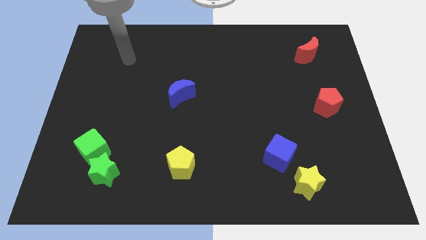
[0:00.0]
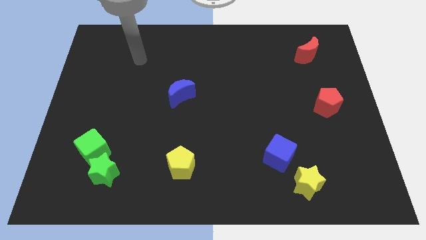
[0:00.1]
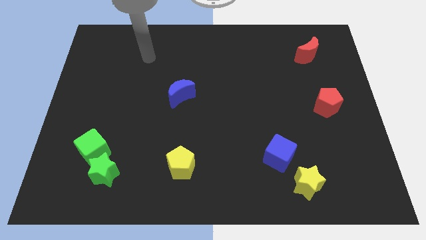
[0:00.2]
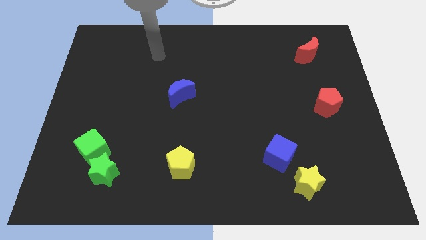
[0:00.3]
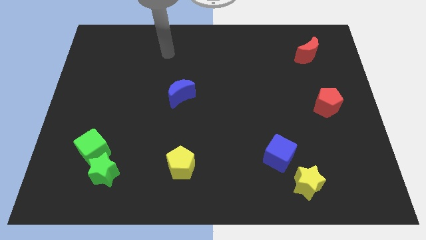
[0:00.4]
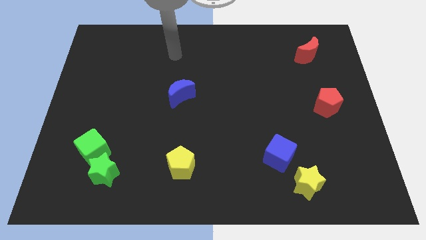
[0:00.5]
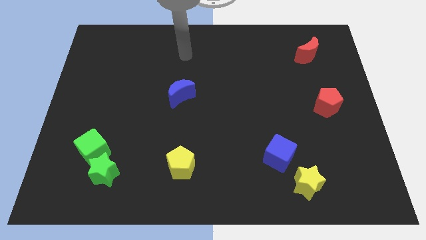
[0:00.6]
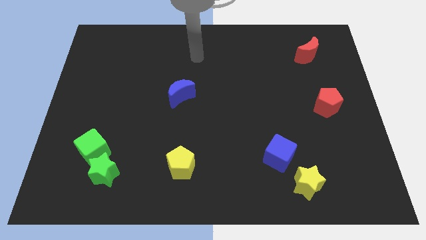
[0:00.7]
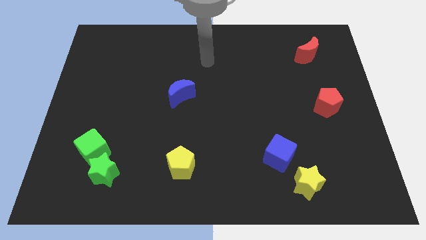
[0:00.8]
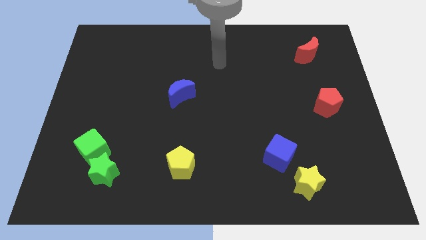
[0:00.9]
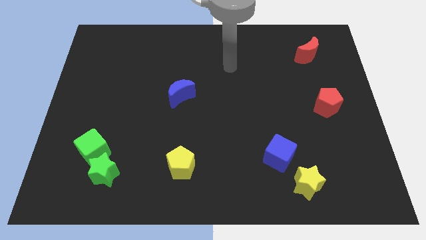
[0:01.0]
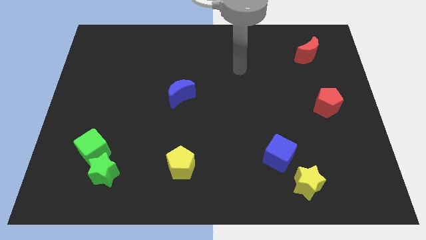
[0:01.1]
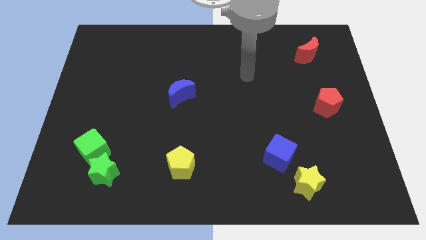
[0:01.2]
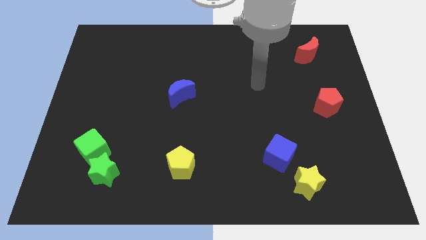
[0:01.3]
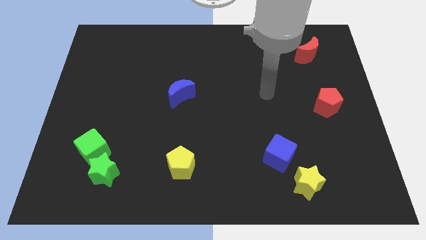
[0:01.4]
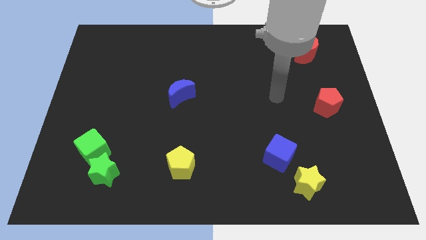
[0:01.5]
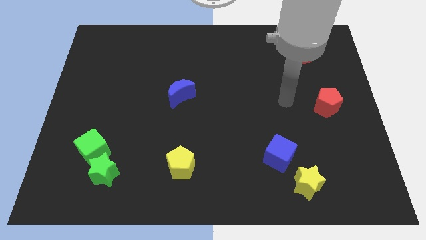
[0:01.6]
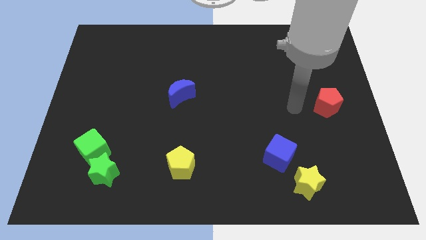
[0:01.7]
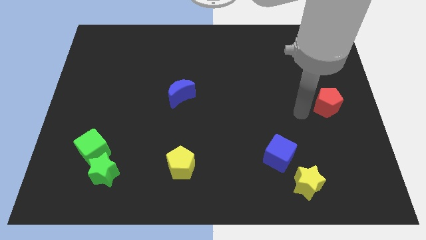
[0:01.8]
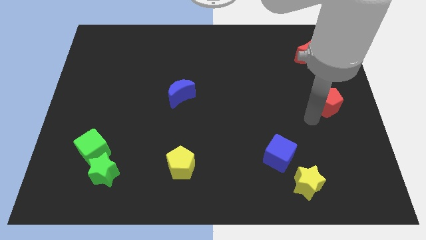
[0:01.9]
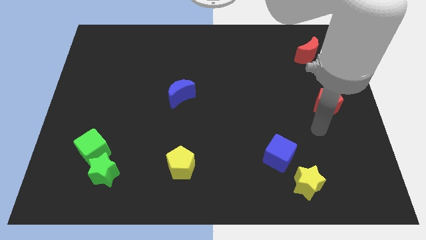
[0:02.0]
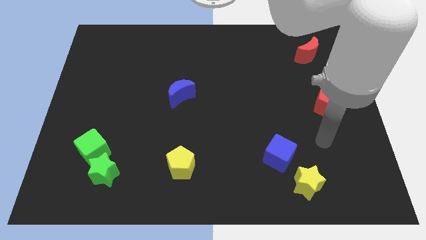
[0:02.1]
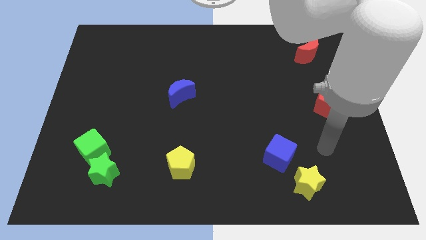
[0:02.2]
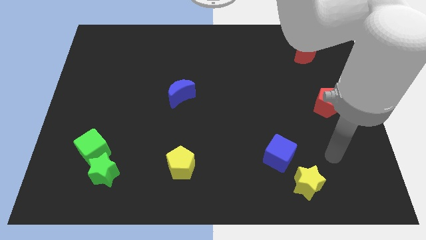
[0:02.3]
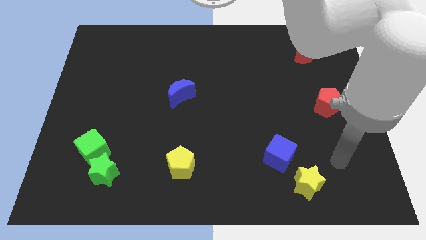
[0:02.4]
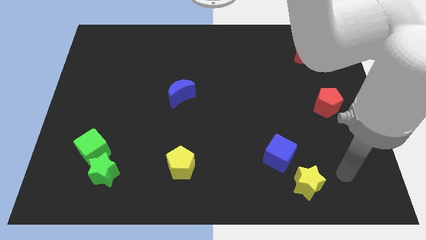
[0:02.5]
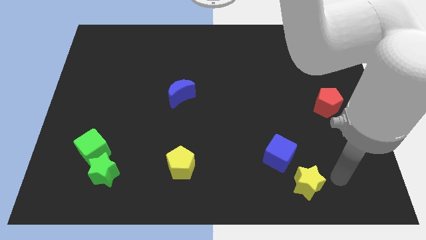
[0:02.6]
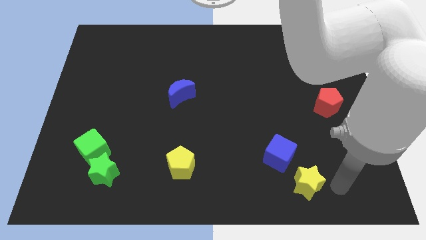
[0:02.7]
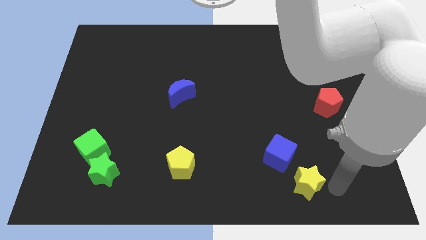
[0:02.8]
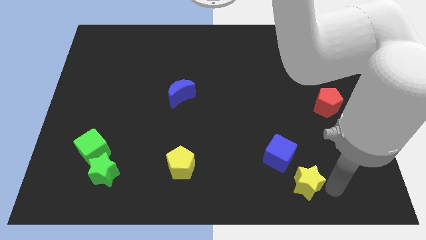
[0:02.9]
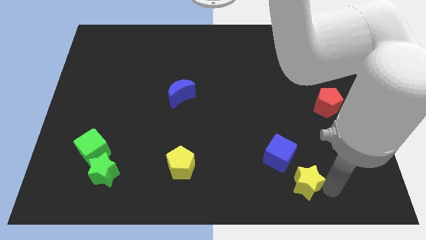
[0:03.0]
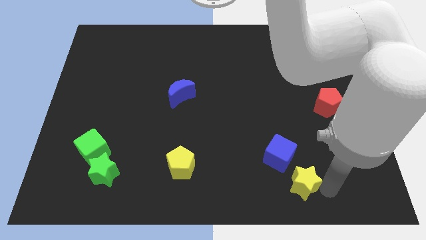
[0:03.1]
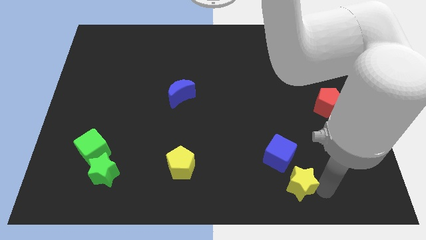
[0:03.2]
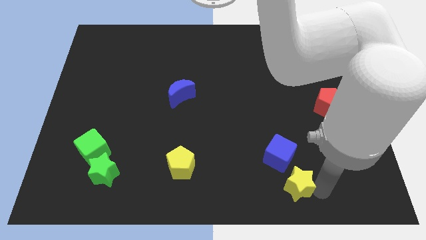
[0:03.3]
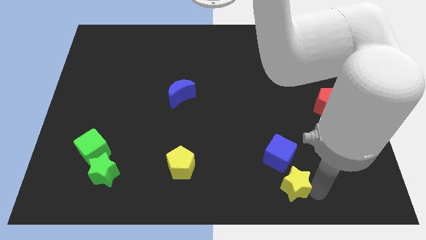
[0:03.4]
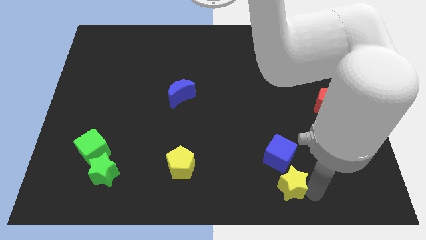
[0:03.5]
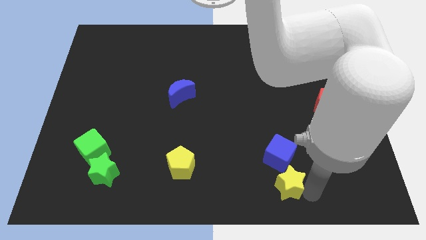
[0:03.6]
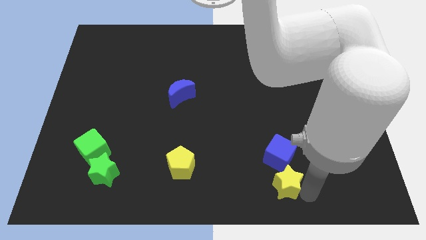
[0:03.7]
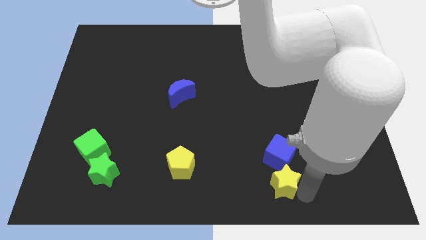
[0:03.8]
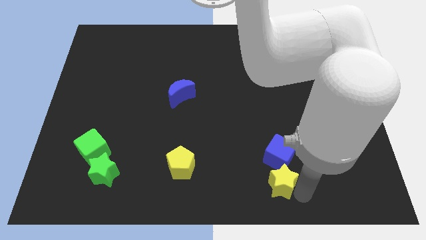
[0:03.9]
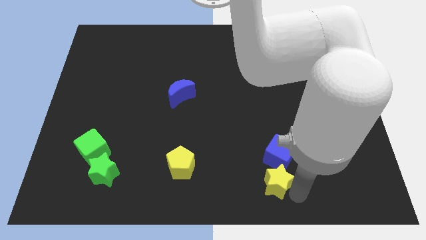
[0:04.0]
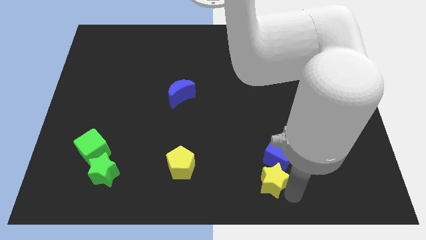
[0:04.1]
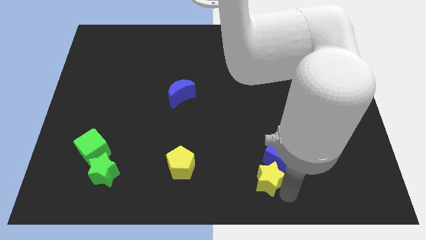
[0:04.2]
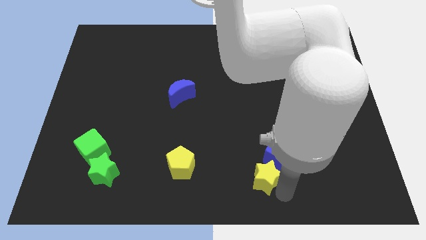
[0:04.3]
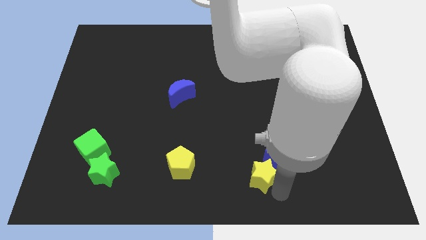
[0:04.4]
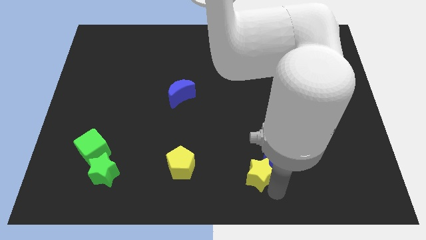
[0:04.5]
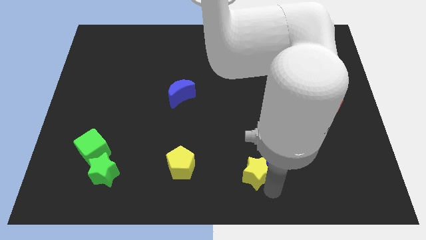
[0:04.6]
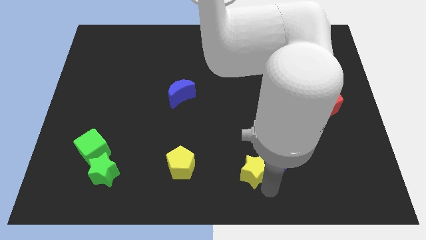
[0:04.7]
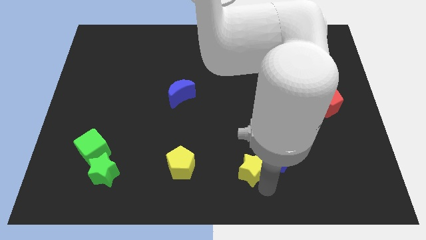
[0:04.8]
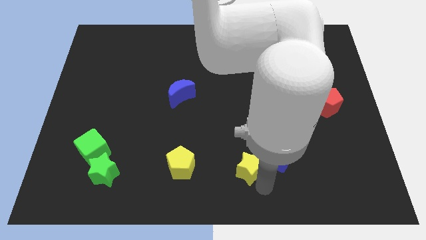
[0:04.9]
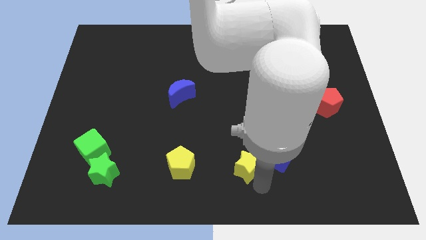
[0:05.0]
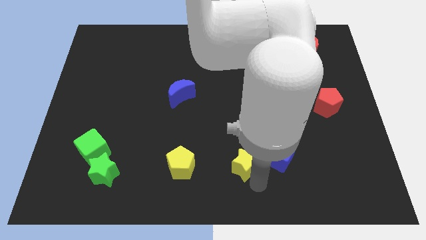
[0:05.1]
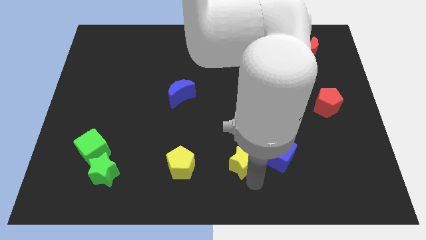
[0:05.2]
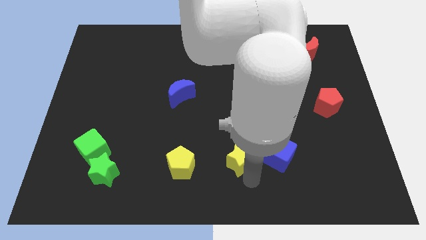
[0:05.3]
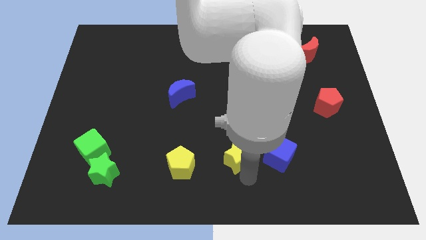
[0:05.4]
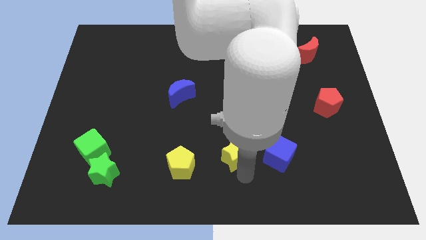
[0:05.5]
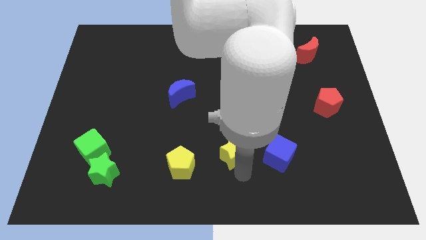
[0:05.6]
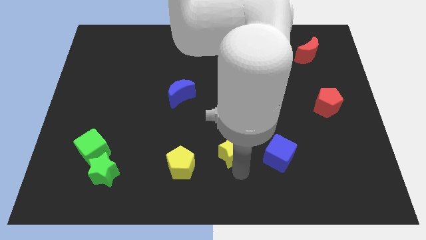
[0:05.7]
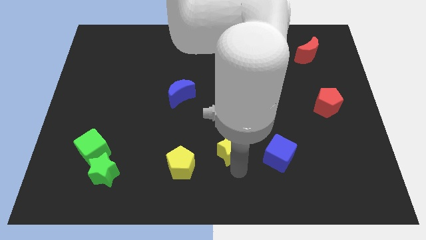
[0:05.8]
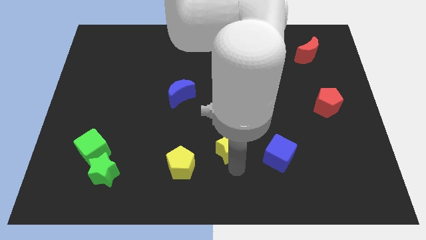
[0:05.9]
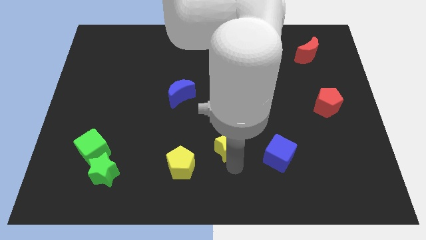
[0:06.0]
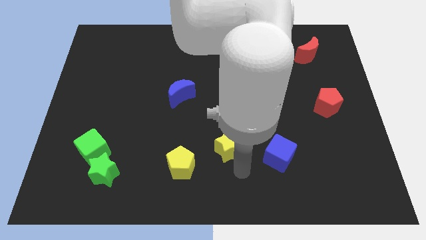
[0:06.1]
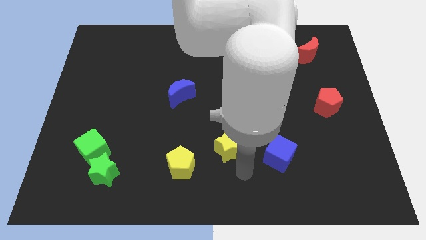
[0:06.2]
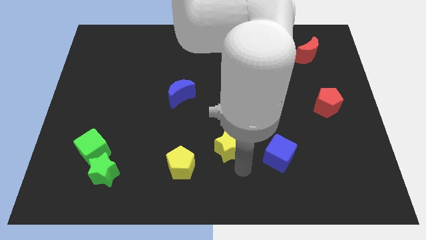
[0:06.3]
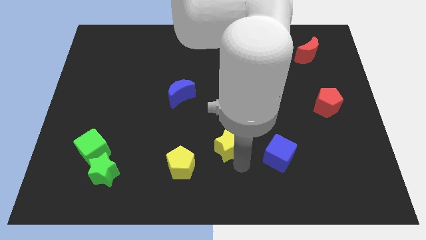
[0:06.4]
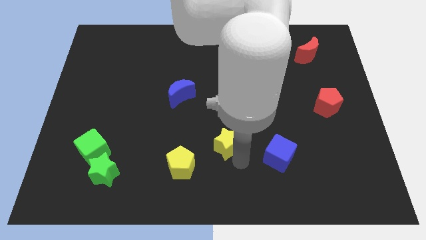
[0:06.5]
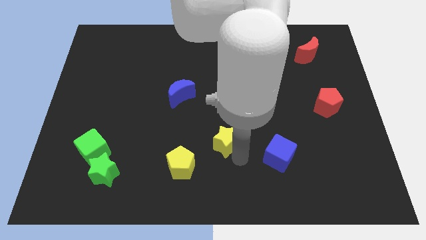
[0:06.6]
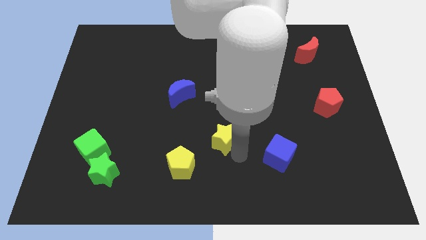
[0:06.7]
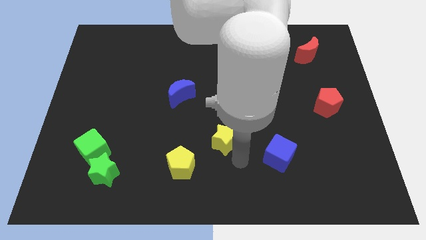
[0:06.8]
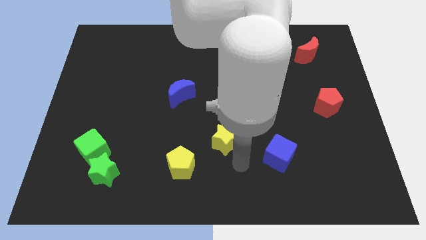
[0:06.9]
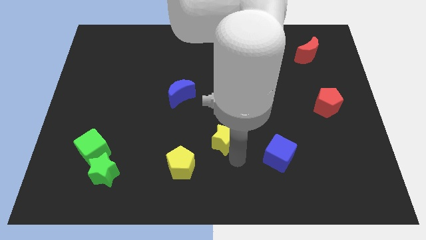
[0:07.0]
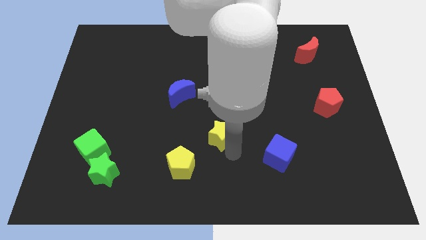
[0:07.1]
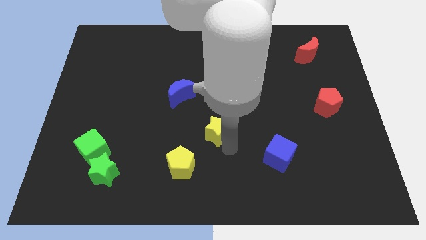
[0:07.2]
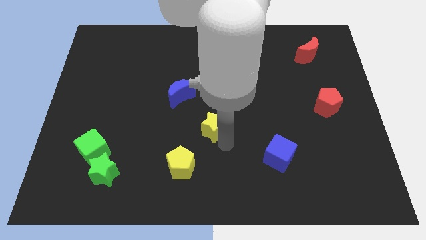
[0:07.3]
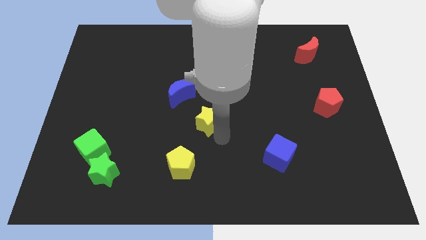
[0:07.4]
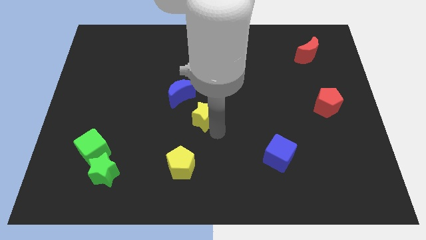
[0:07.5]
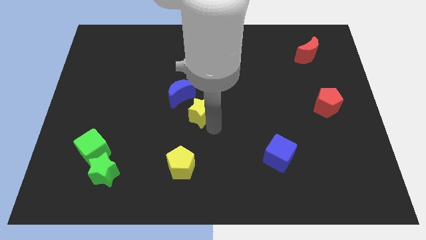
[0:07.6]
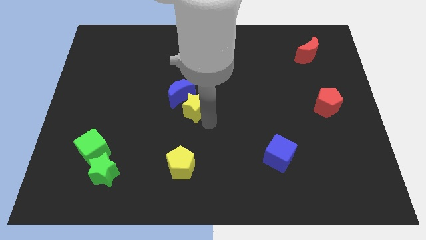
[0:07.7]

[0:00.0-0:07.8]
put the yellow star close to the blue moon
